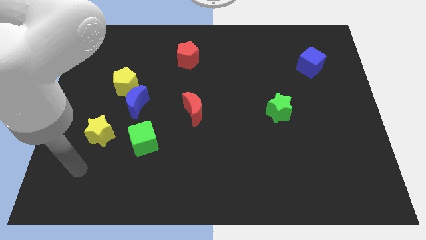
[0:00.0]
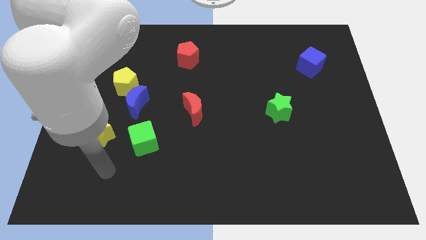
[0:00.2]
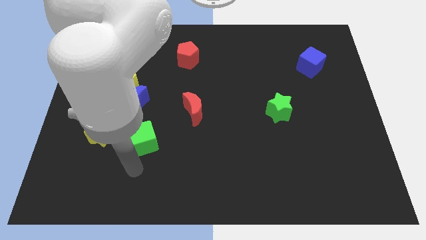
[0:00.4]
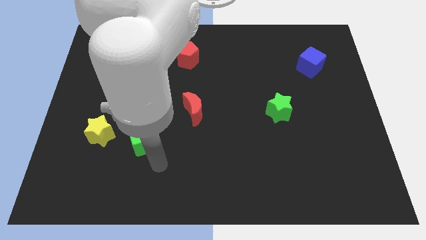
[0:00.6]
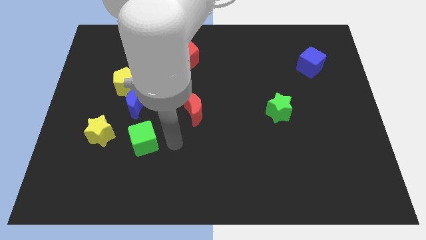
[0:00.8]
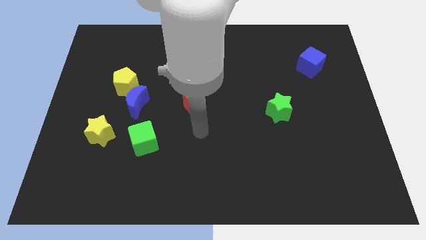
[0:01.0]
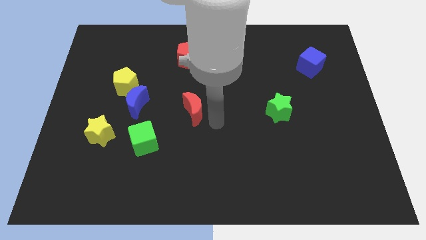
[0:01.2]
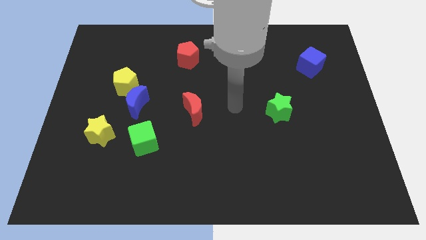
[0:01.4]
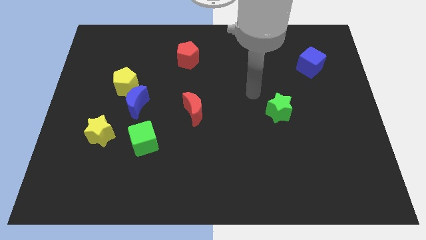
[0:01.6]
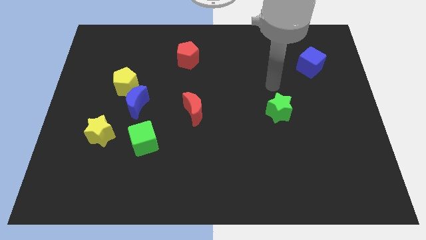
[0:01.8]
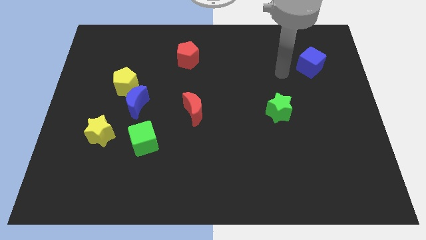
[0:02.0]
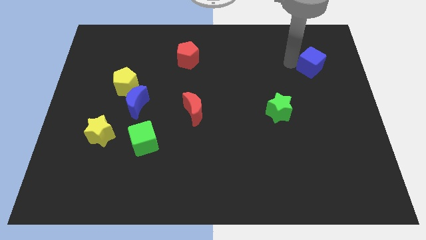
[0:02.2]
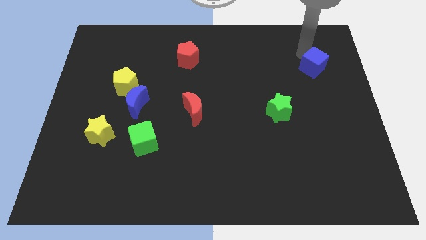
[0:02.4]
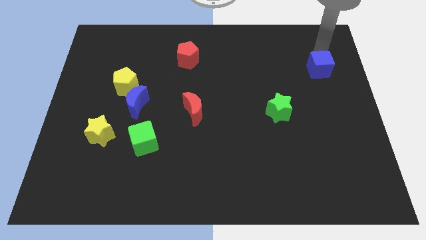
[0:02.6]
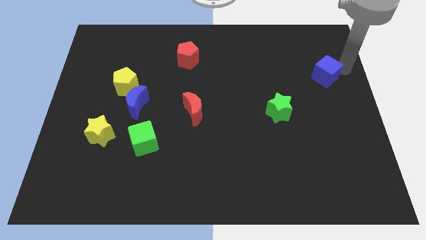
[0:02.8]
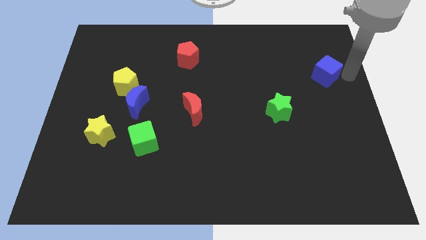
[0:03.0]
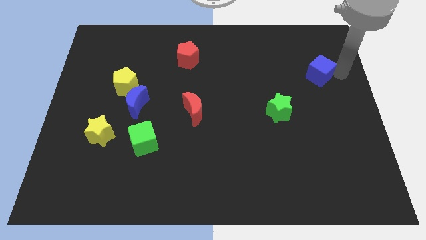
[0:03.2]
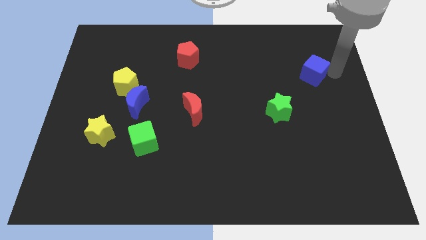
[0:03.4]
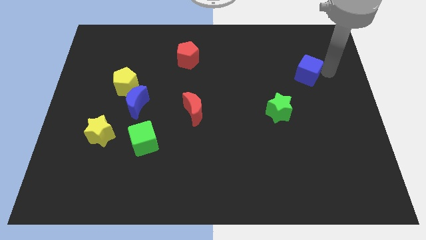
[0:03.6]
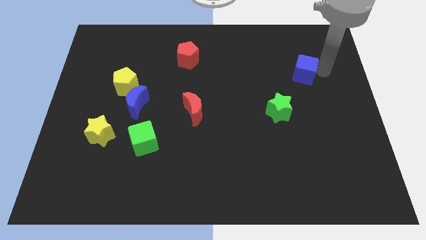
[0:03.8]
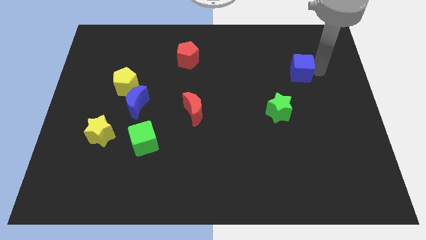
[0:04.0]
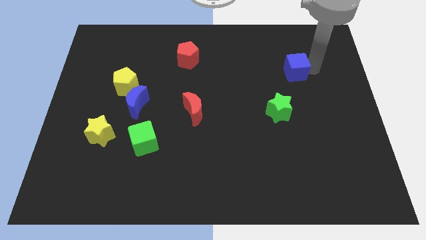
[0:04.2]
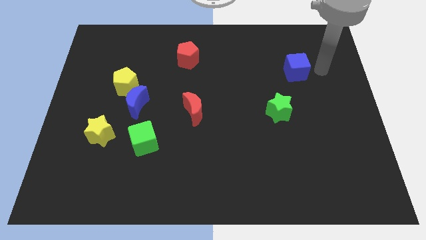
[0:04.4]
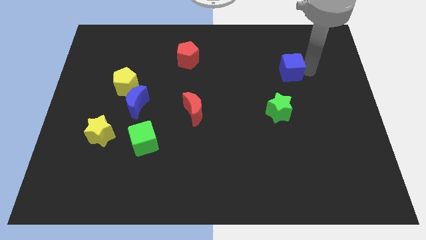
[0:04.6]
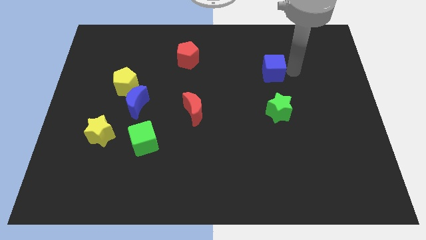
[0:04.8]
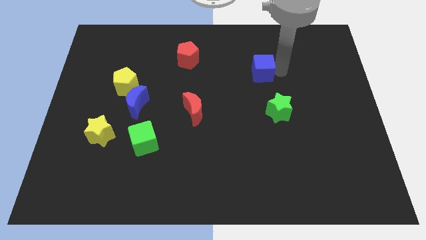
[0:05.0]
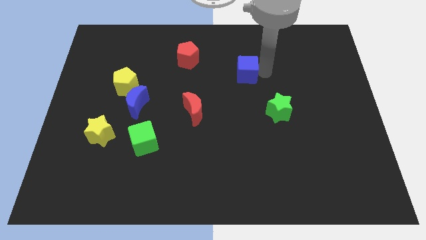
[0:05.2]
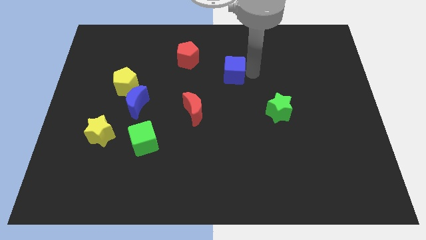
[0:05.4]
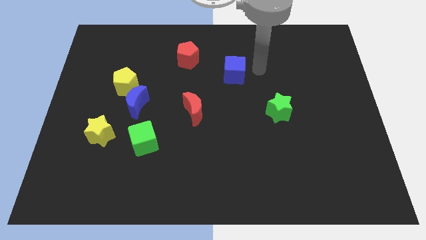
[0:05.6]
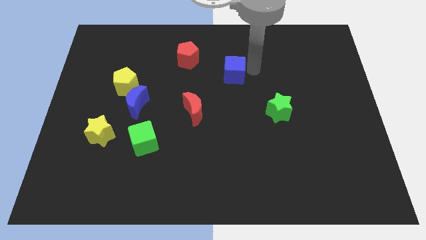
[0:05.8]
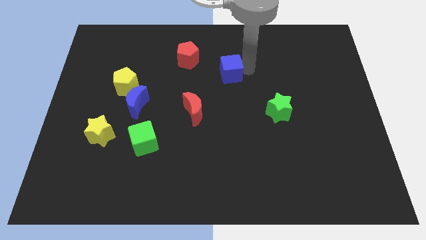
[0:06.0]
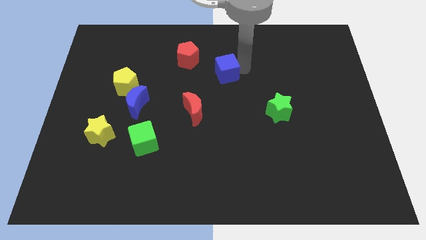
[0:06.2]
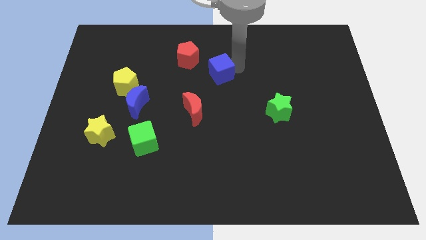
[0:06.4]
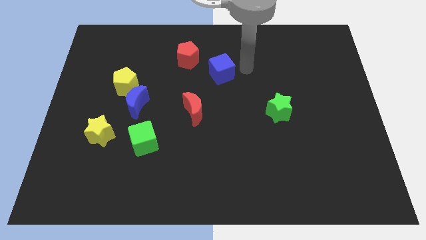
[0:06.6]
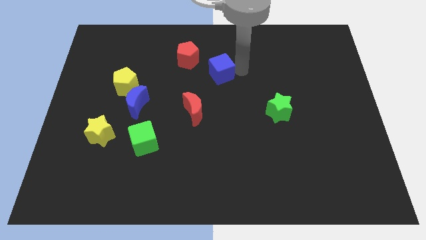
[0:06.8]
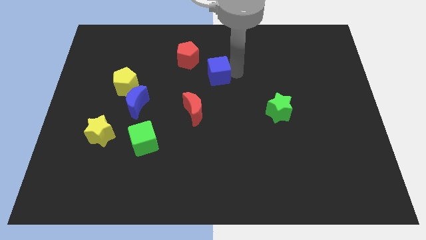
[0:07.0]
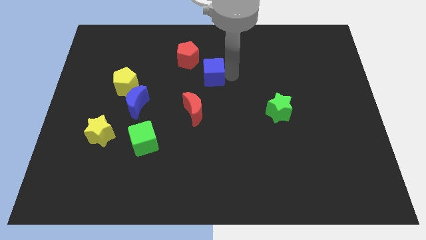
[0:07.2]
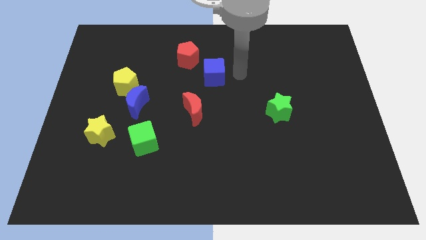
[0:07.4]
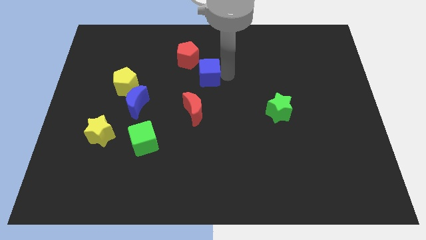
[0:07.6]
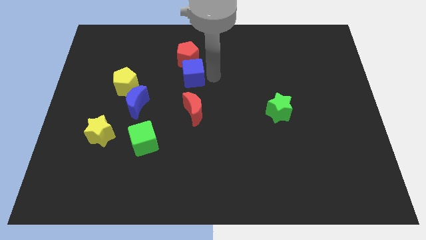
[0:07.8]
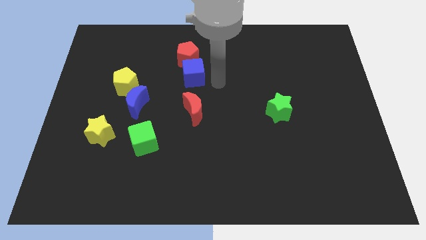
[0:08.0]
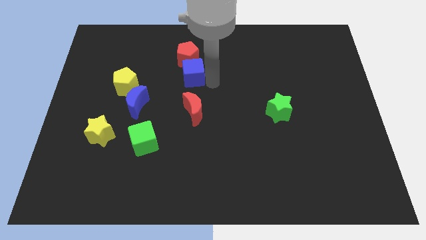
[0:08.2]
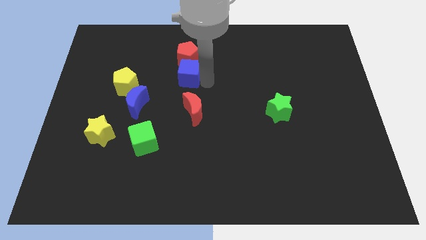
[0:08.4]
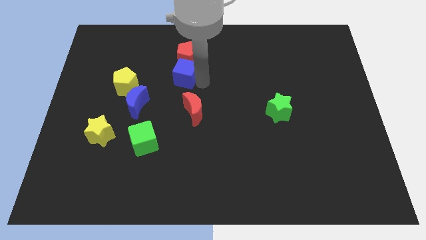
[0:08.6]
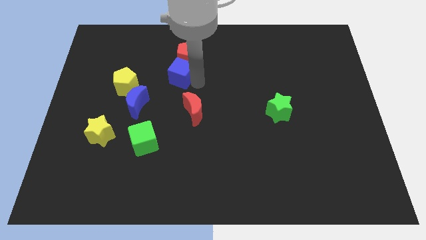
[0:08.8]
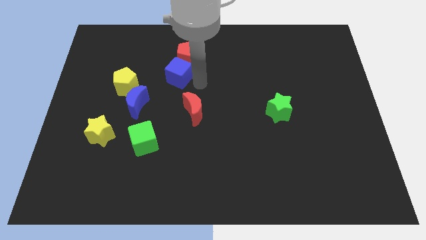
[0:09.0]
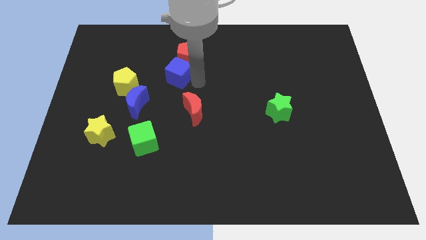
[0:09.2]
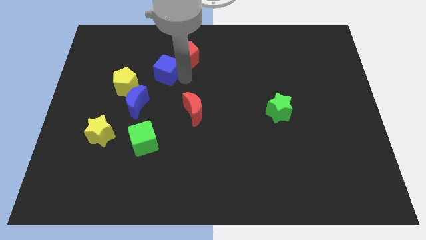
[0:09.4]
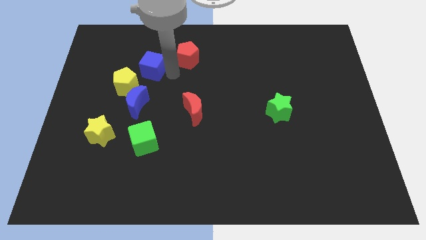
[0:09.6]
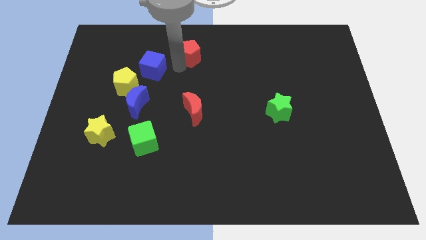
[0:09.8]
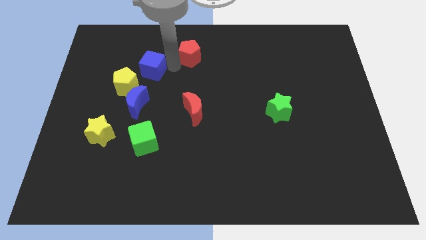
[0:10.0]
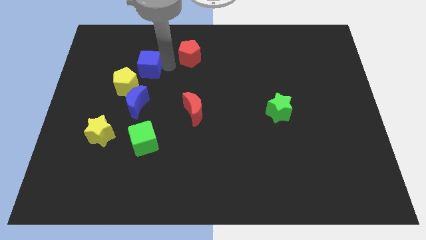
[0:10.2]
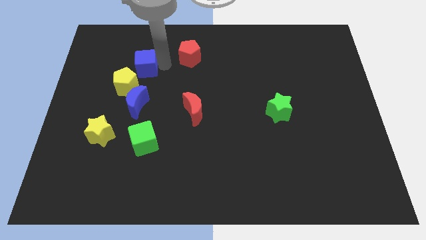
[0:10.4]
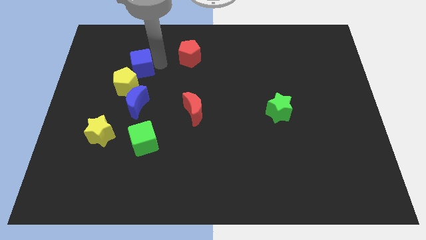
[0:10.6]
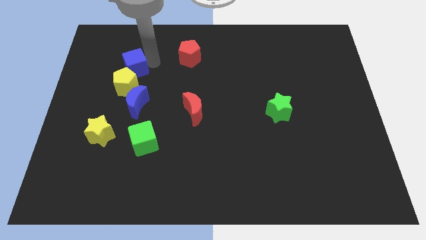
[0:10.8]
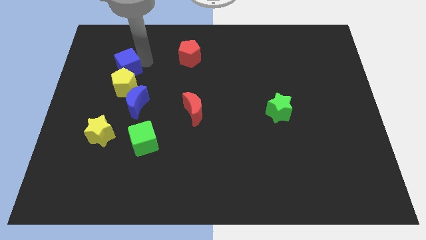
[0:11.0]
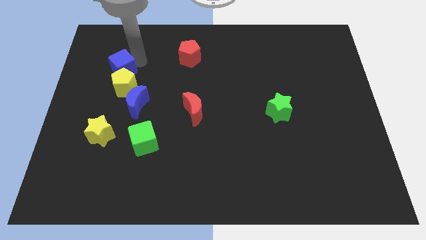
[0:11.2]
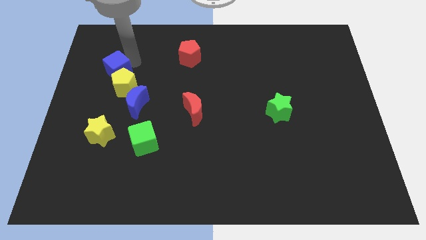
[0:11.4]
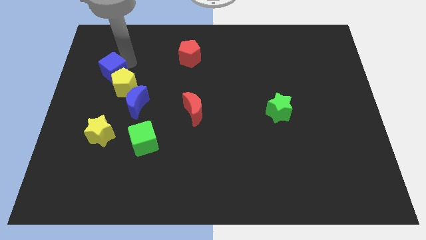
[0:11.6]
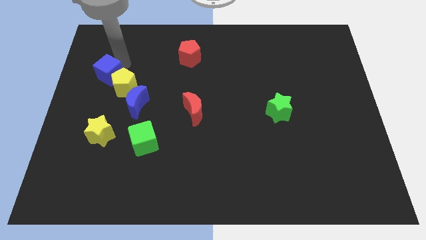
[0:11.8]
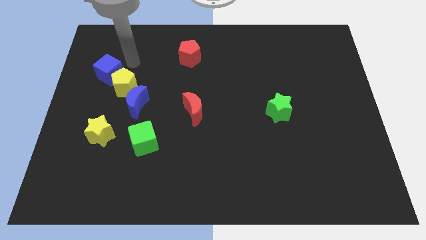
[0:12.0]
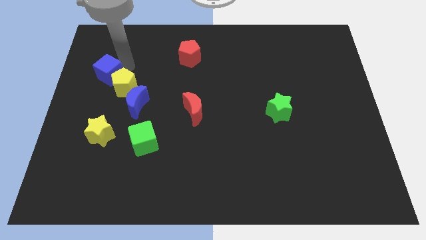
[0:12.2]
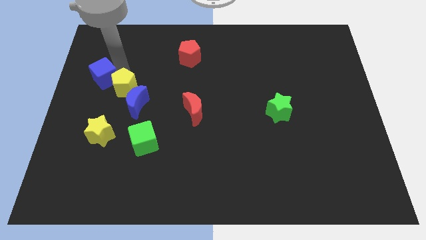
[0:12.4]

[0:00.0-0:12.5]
push the blue cube to the left side
